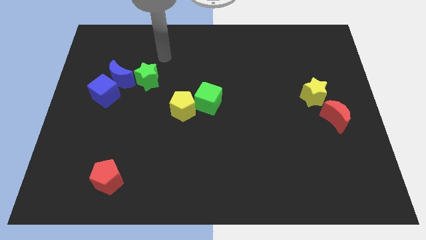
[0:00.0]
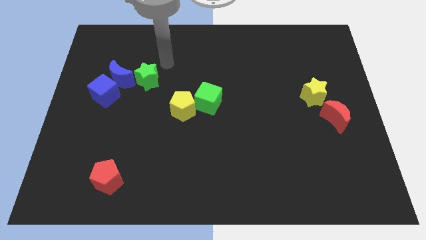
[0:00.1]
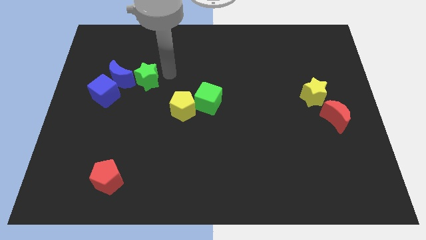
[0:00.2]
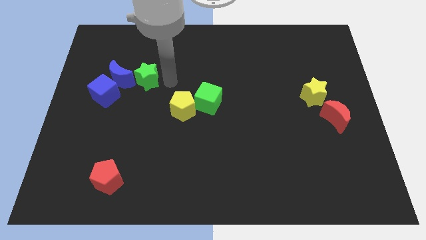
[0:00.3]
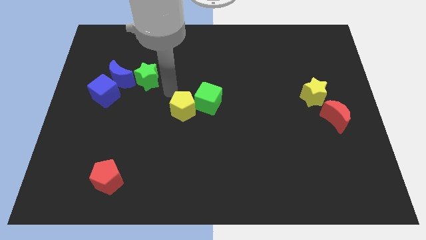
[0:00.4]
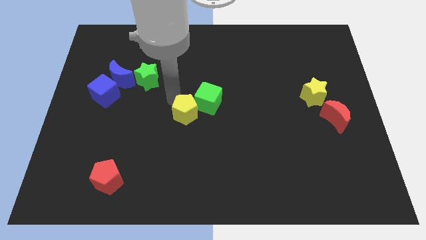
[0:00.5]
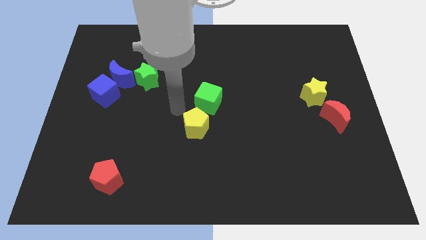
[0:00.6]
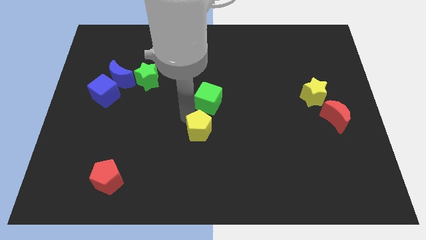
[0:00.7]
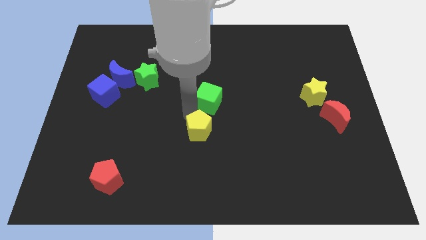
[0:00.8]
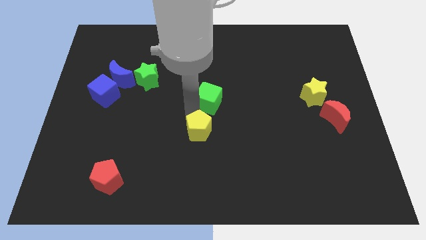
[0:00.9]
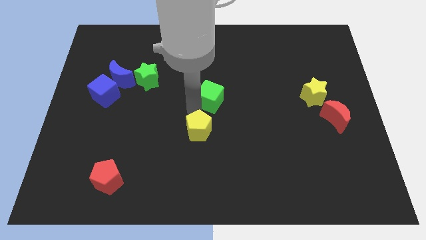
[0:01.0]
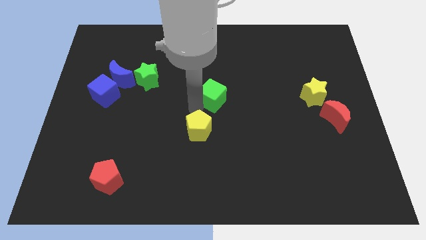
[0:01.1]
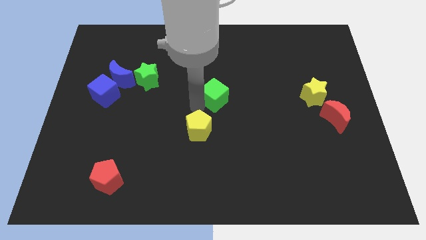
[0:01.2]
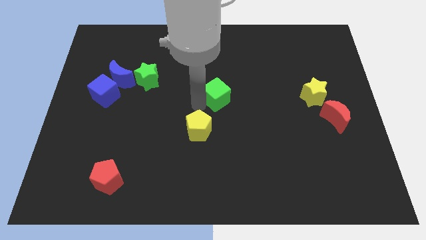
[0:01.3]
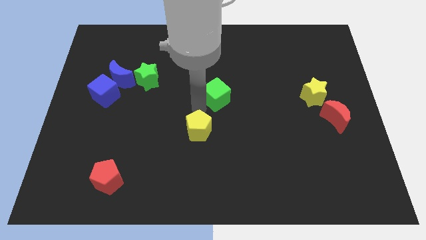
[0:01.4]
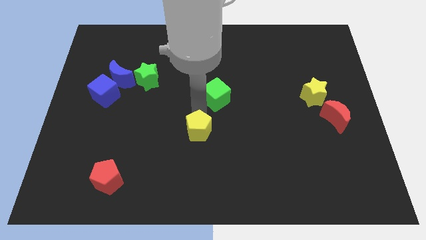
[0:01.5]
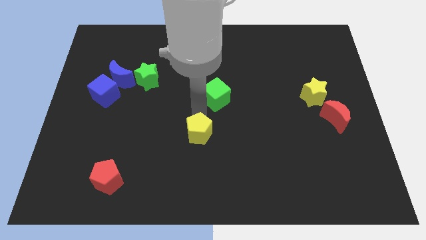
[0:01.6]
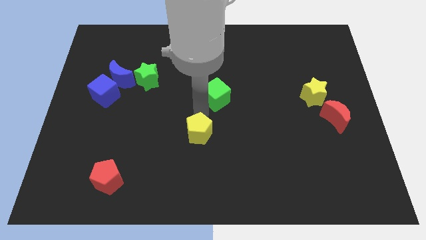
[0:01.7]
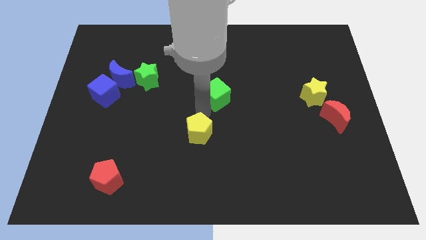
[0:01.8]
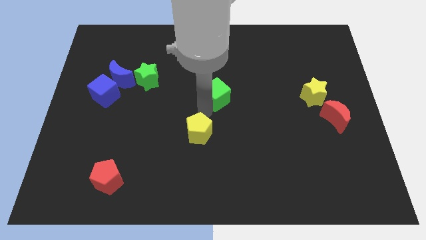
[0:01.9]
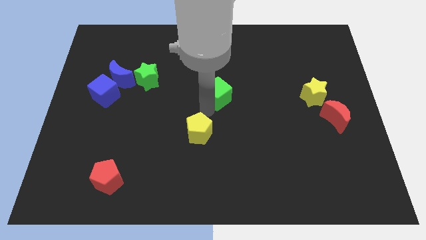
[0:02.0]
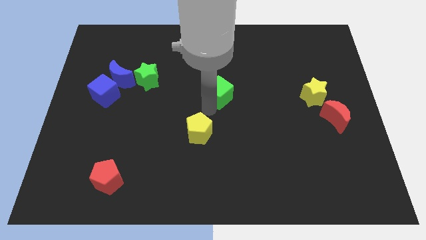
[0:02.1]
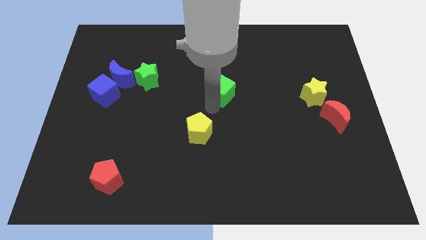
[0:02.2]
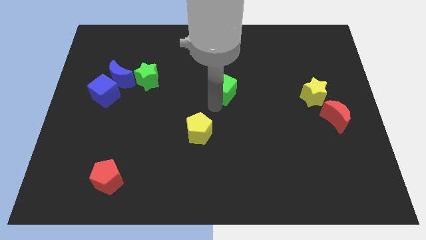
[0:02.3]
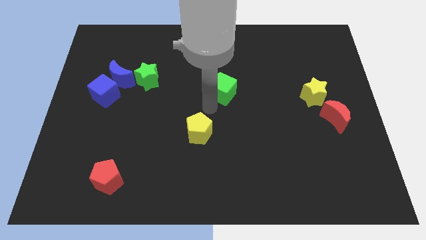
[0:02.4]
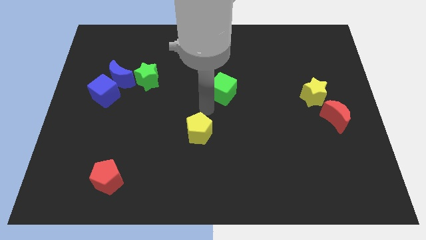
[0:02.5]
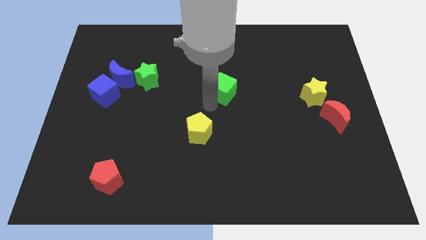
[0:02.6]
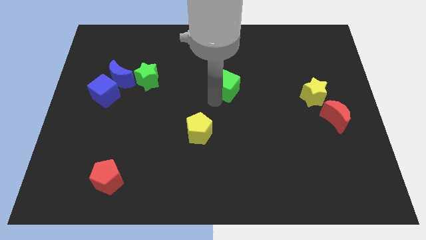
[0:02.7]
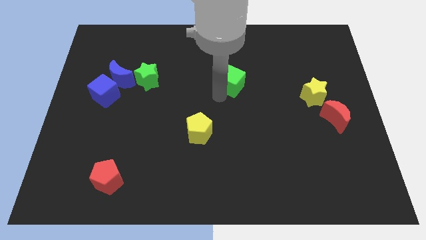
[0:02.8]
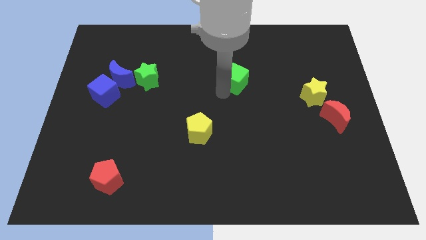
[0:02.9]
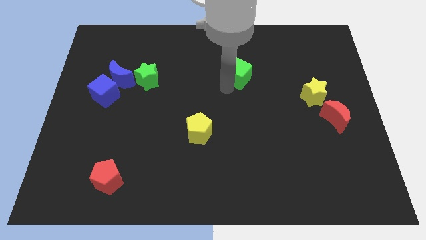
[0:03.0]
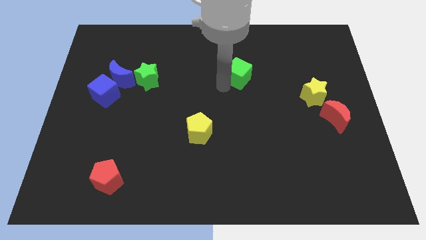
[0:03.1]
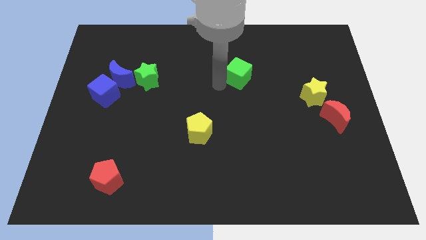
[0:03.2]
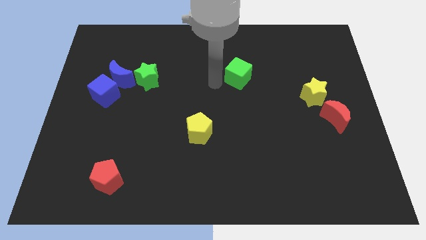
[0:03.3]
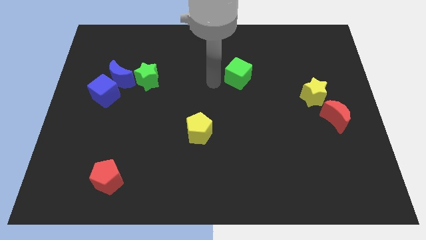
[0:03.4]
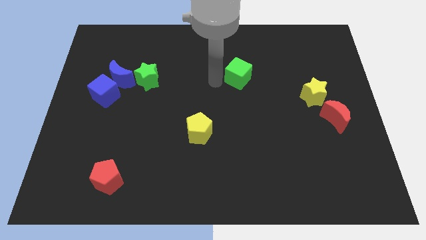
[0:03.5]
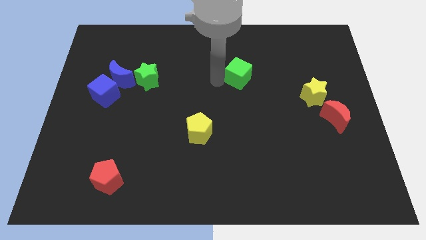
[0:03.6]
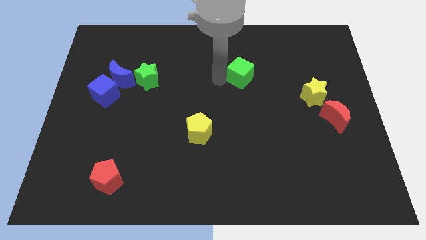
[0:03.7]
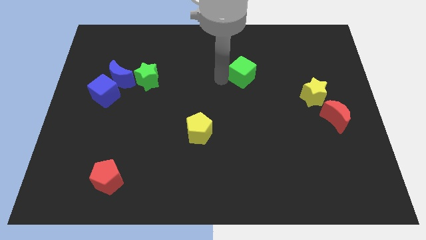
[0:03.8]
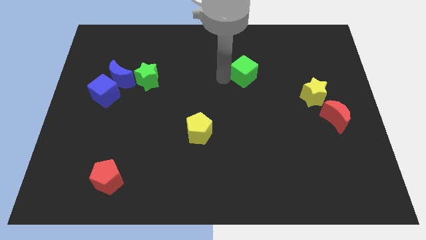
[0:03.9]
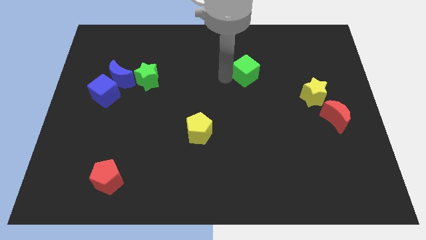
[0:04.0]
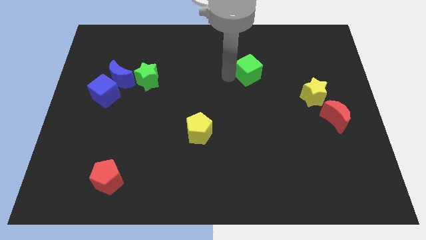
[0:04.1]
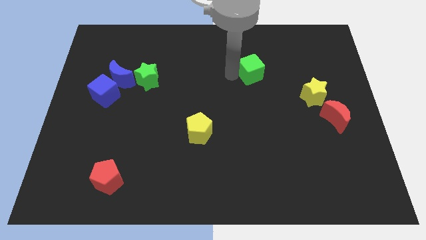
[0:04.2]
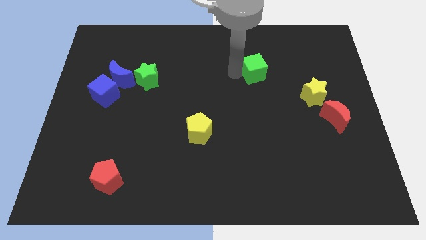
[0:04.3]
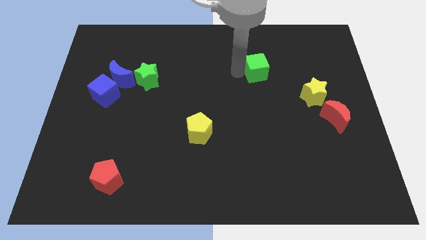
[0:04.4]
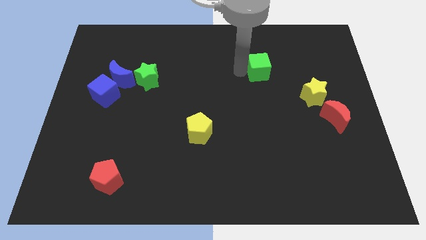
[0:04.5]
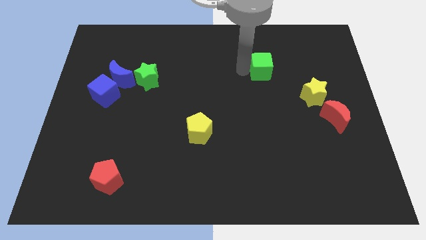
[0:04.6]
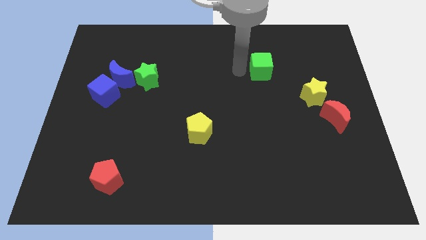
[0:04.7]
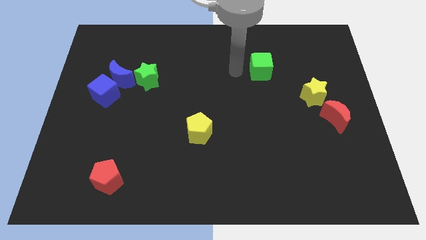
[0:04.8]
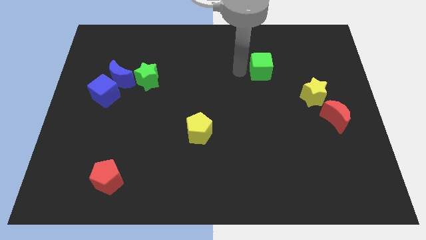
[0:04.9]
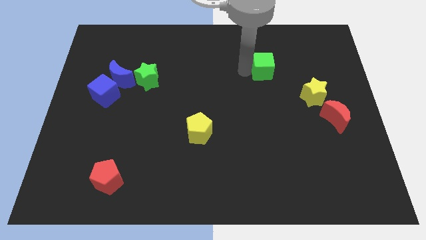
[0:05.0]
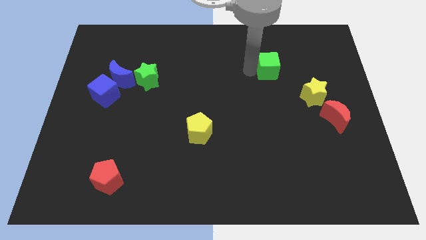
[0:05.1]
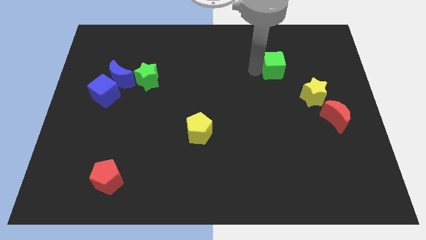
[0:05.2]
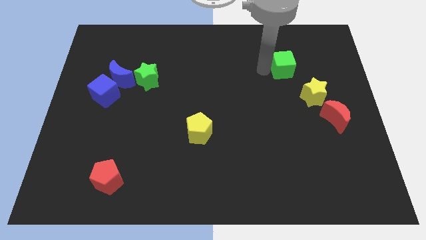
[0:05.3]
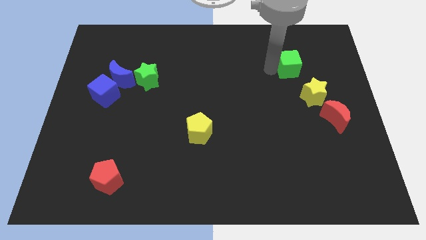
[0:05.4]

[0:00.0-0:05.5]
put the green cube to the top side of the yellow star

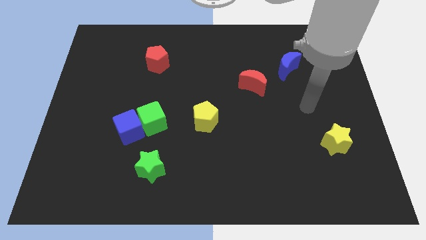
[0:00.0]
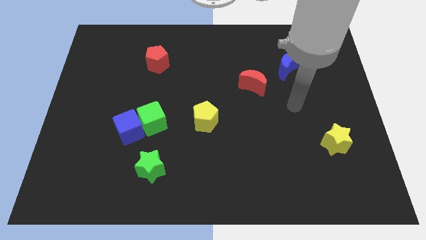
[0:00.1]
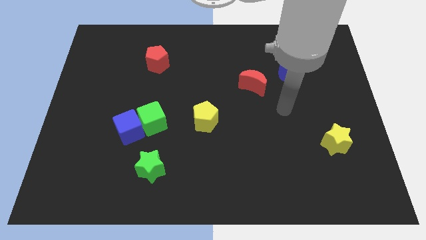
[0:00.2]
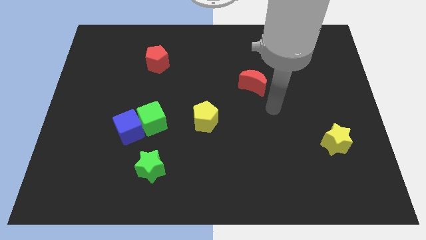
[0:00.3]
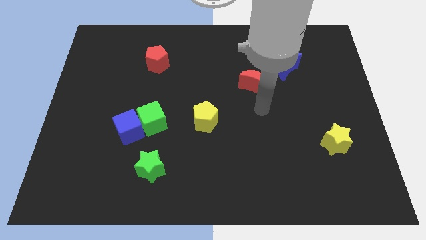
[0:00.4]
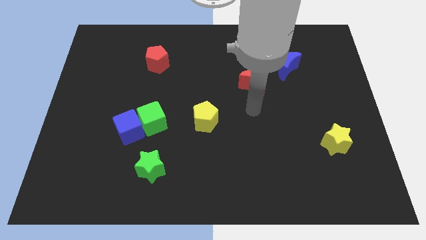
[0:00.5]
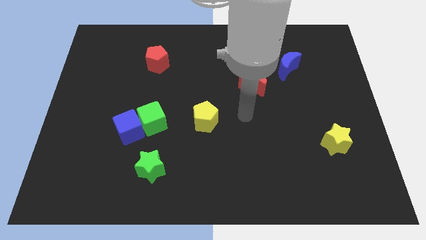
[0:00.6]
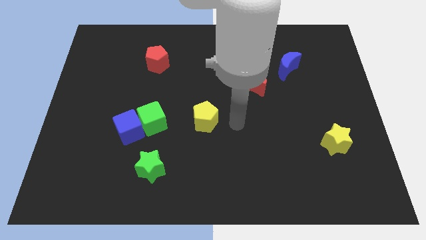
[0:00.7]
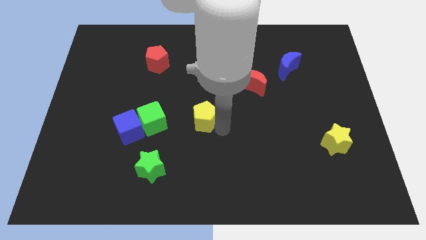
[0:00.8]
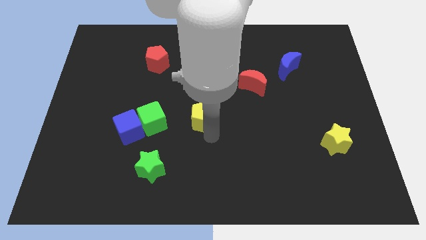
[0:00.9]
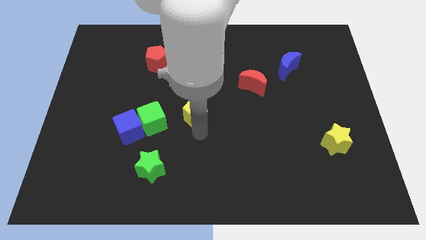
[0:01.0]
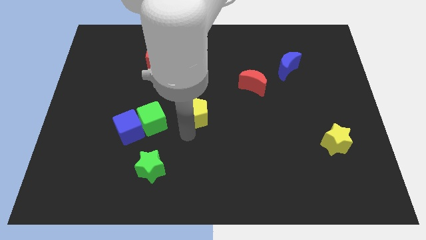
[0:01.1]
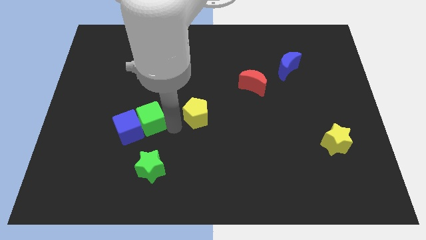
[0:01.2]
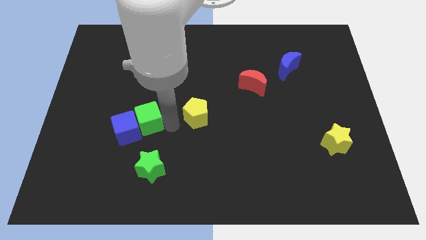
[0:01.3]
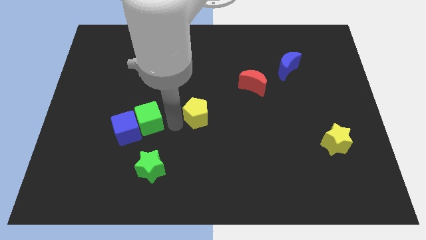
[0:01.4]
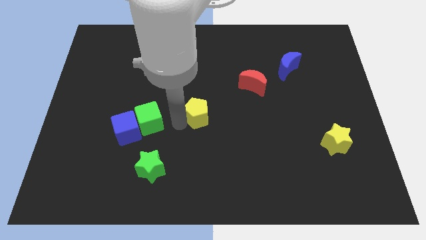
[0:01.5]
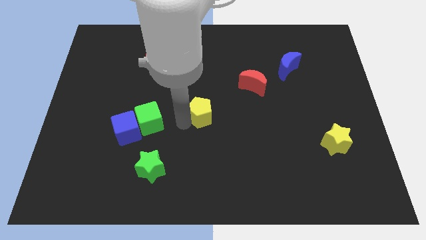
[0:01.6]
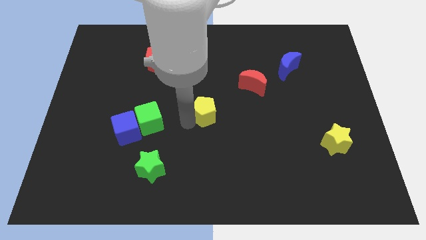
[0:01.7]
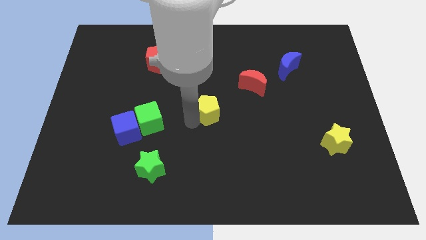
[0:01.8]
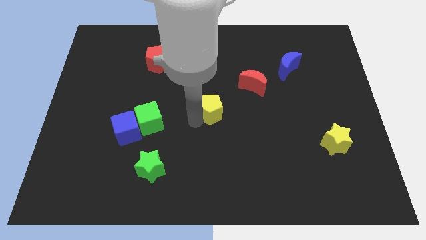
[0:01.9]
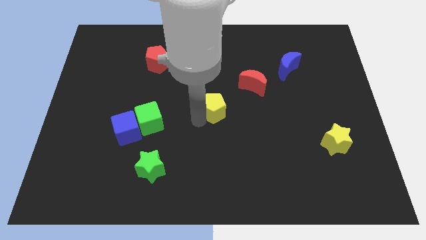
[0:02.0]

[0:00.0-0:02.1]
move the yellow pentagon diagonally down and to the left of the red moon

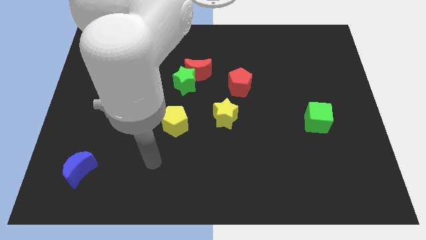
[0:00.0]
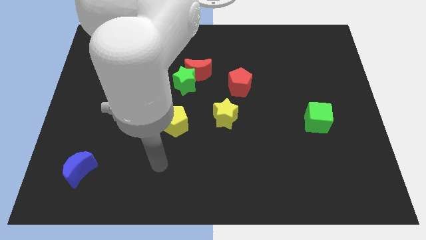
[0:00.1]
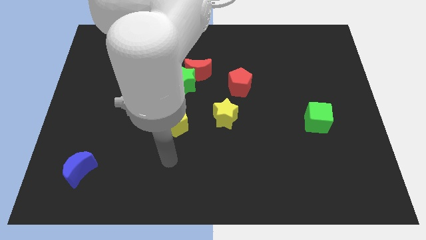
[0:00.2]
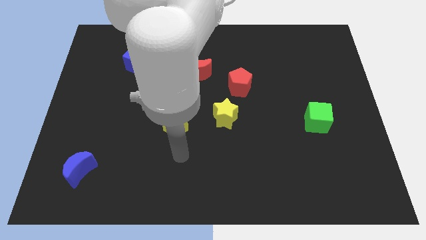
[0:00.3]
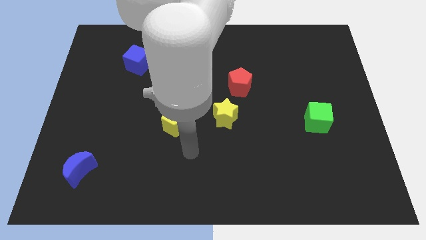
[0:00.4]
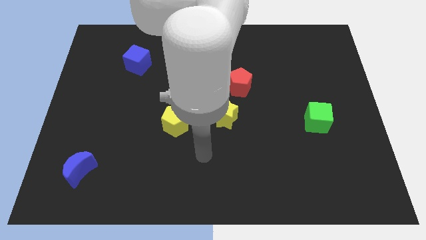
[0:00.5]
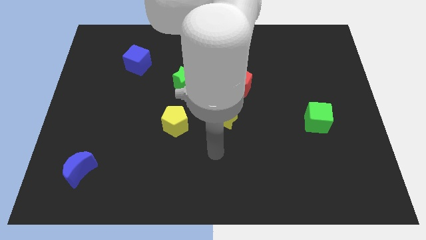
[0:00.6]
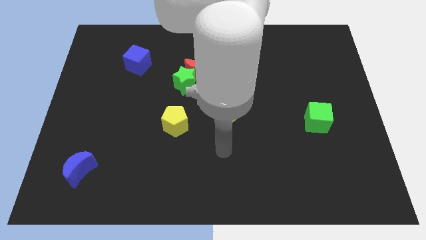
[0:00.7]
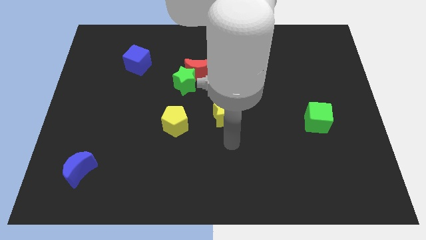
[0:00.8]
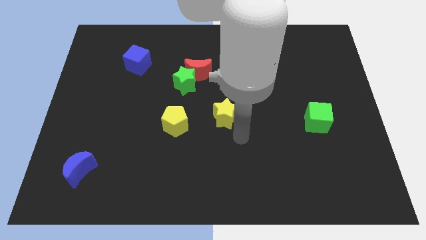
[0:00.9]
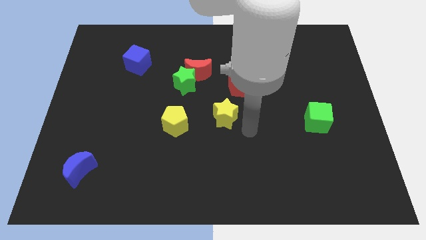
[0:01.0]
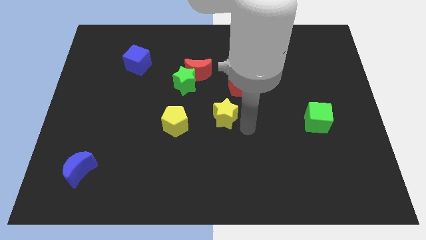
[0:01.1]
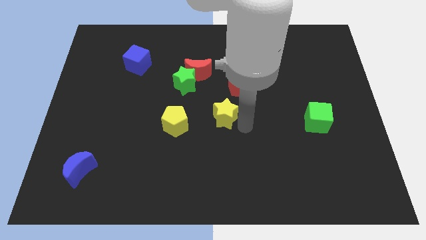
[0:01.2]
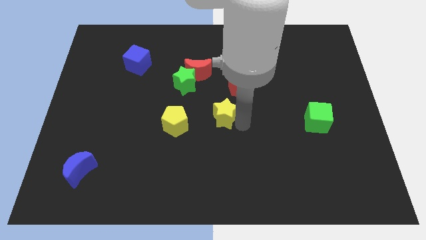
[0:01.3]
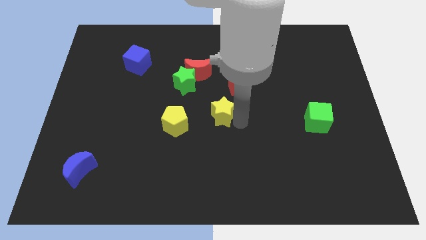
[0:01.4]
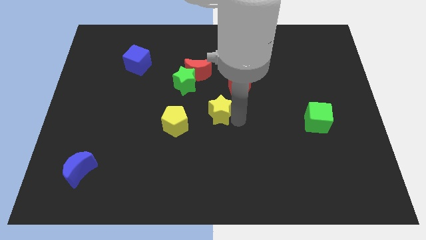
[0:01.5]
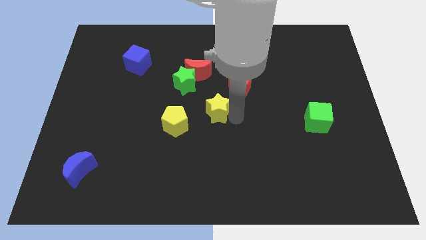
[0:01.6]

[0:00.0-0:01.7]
push the yellow star to the bottom of the red moon
